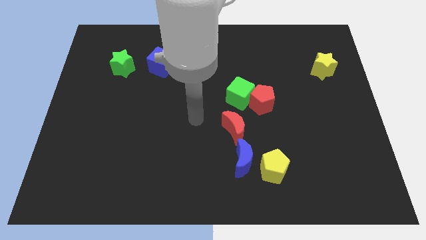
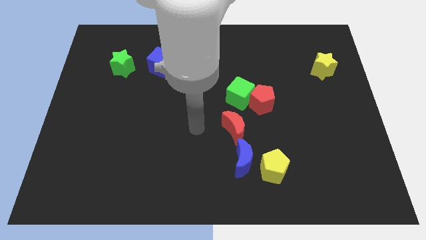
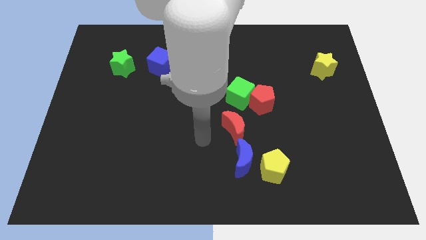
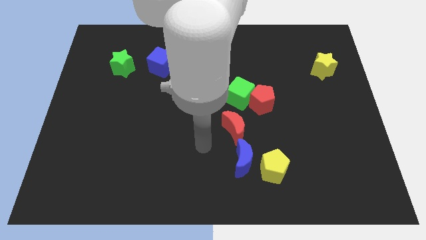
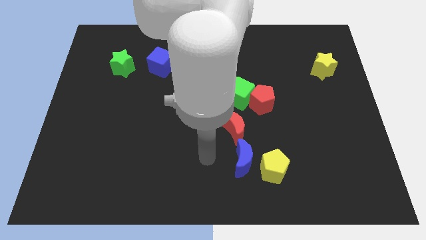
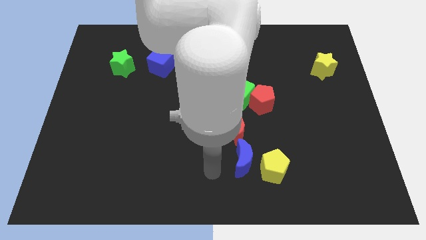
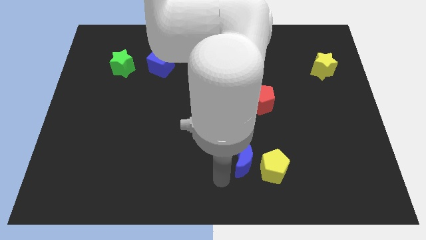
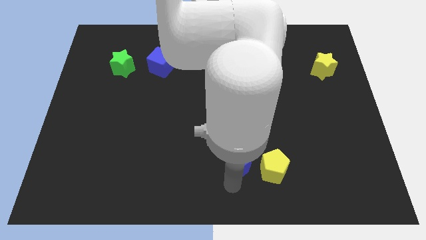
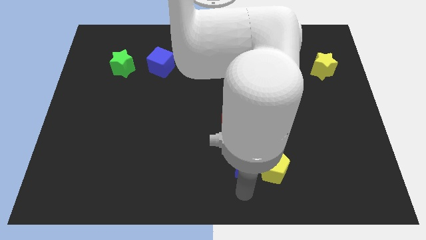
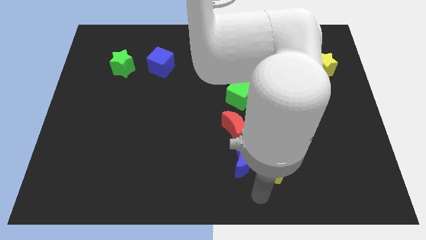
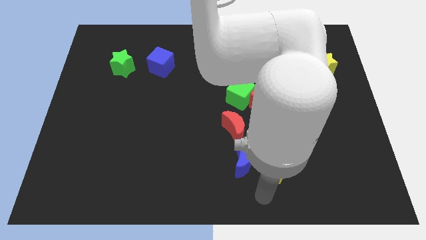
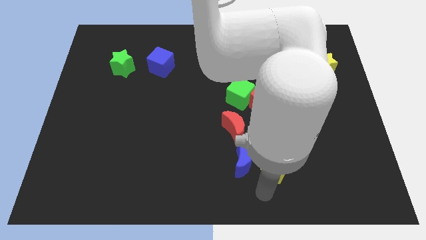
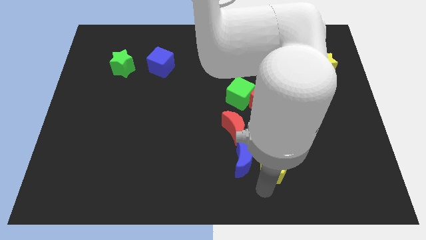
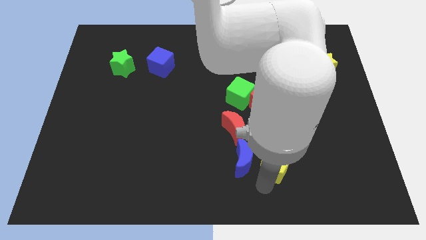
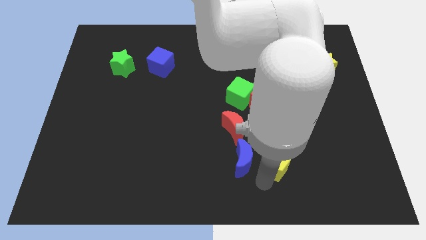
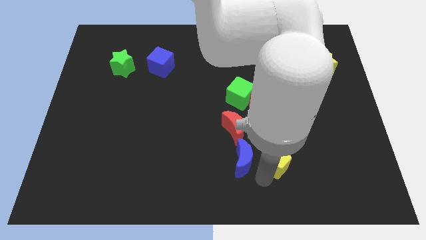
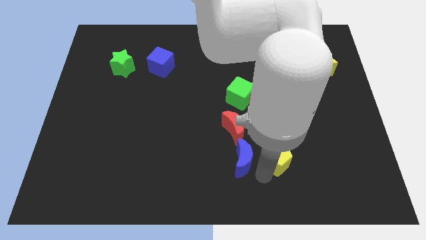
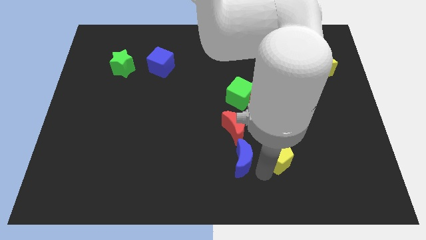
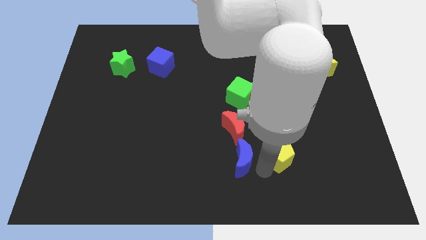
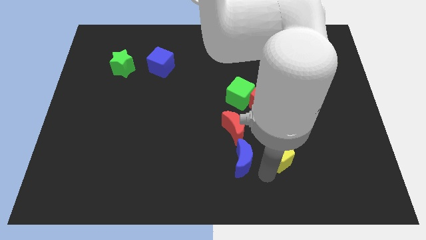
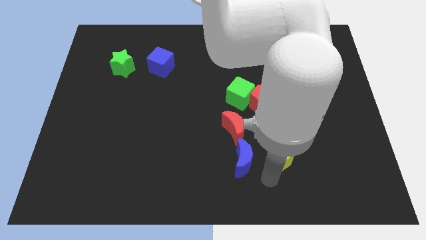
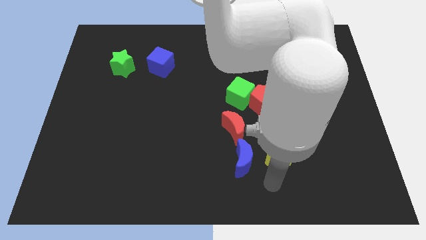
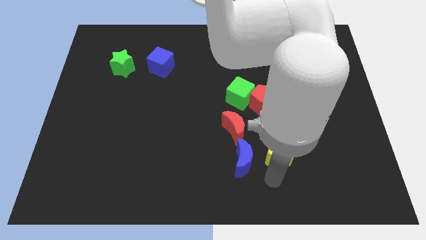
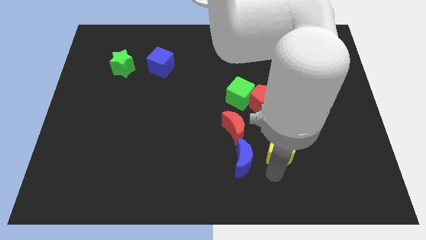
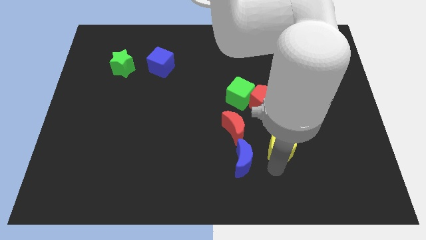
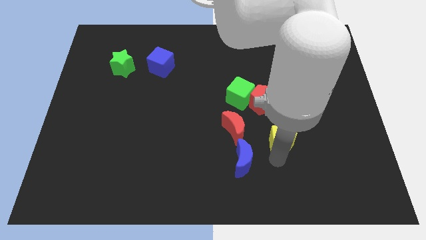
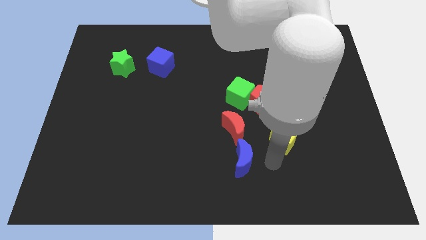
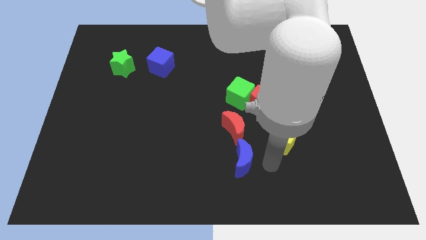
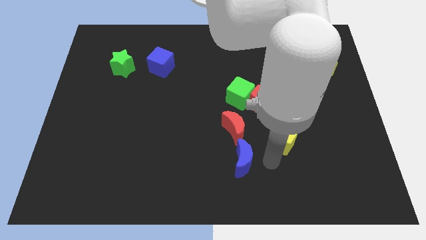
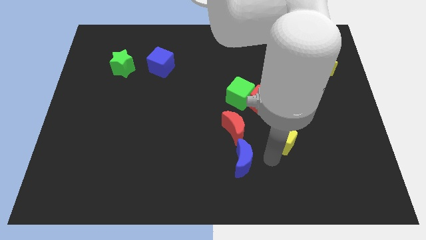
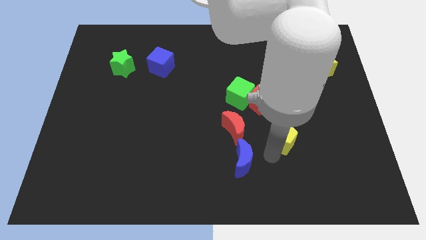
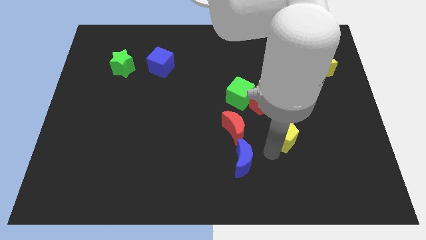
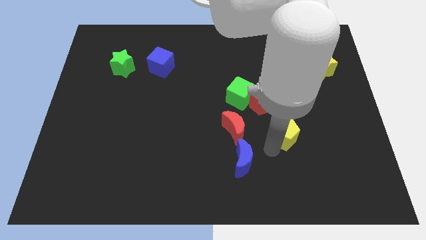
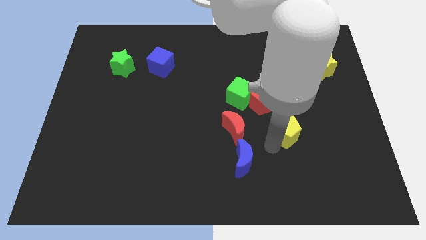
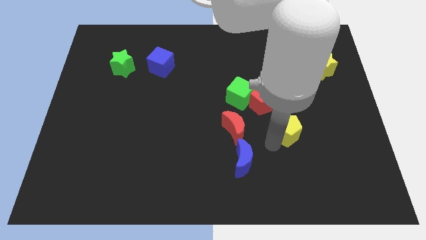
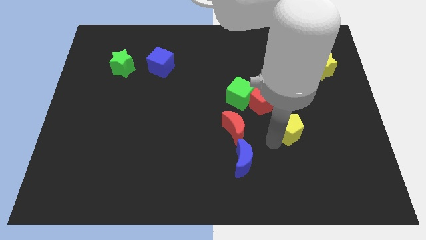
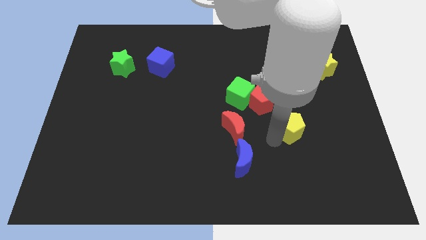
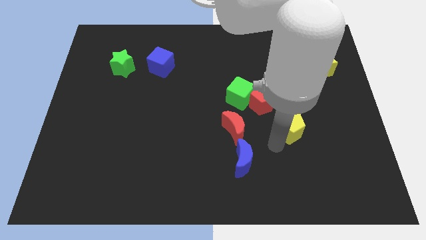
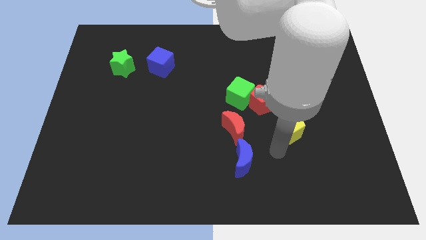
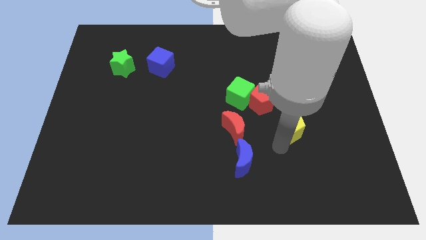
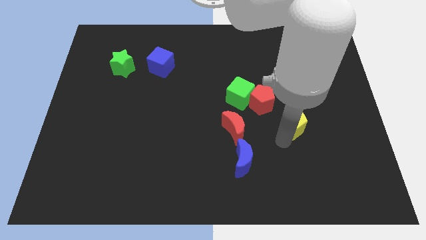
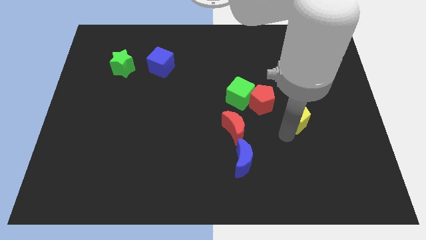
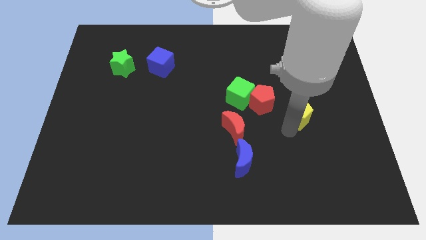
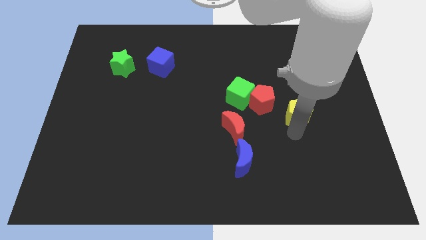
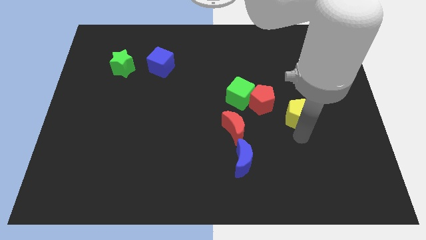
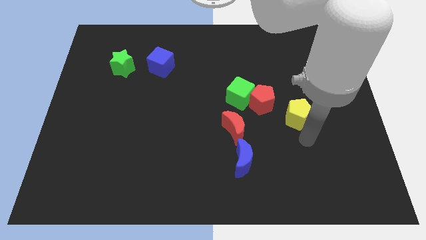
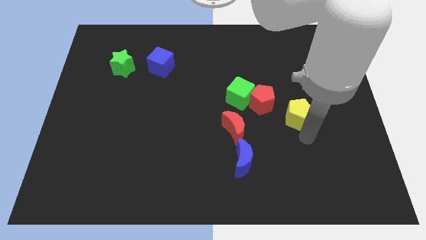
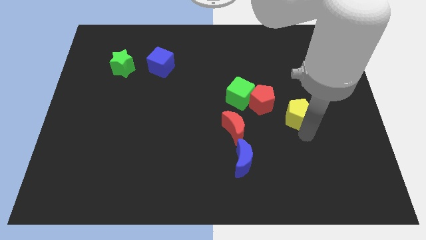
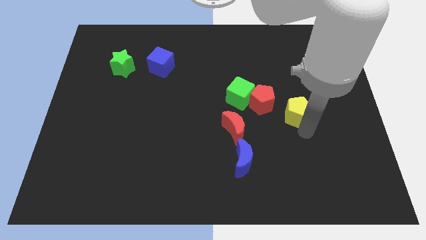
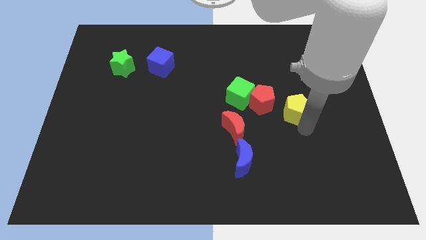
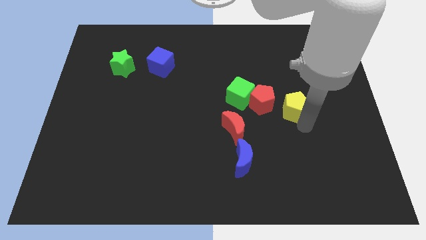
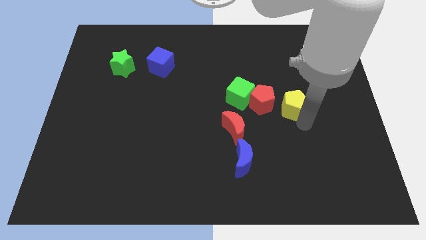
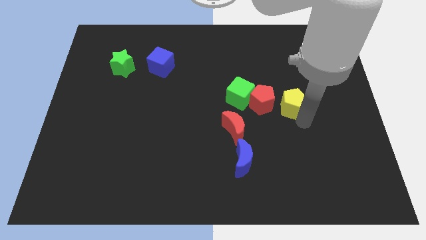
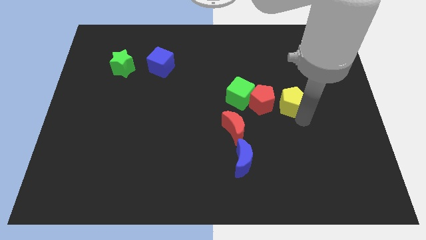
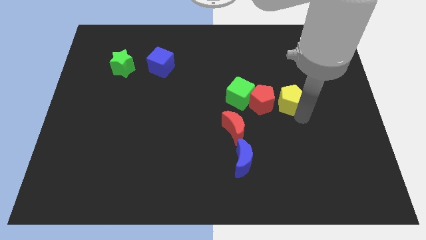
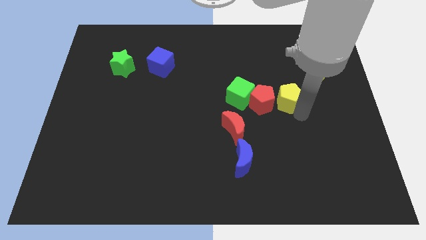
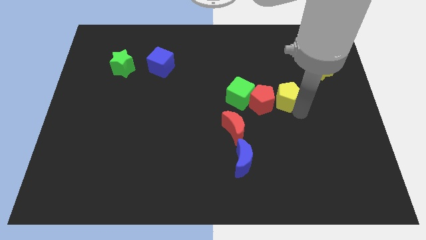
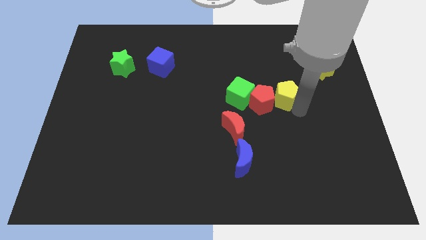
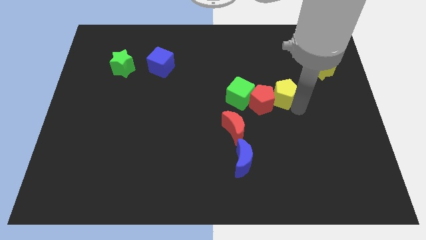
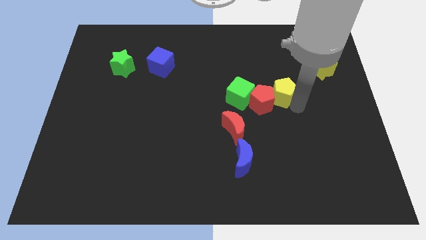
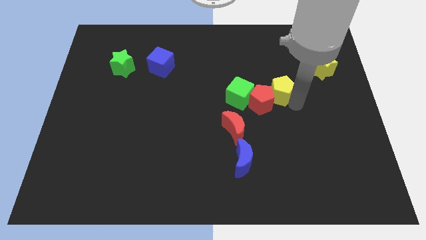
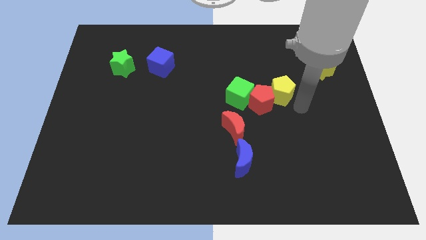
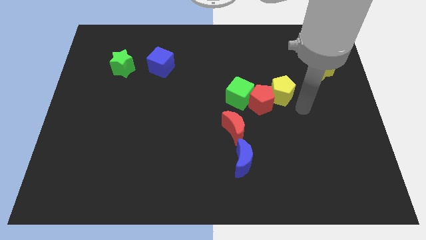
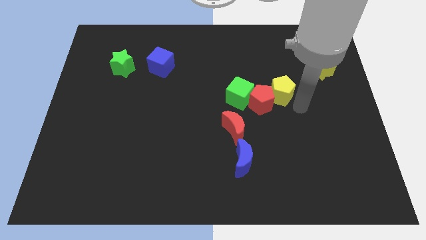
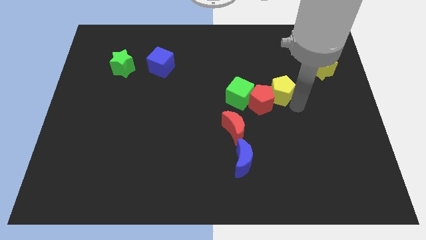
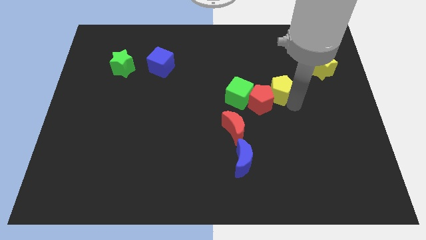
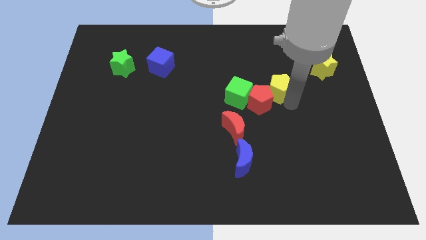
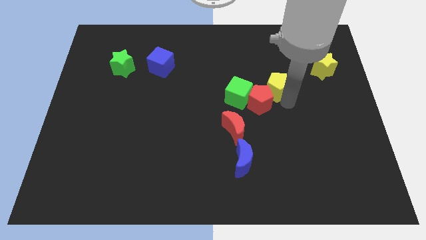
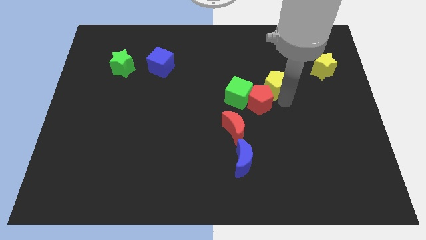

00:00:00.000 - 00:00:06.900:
push the yellow pentagon to the top right of the green cube
